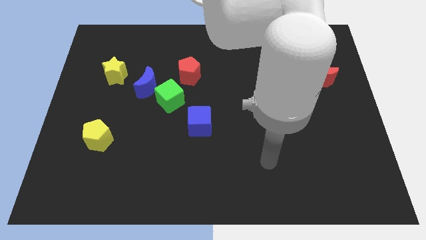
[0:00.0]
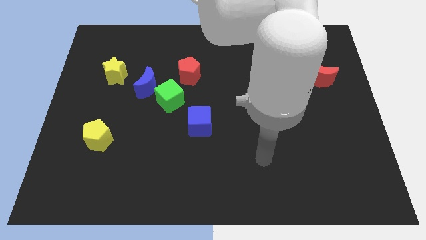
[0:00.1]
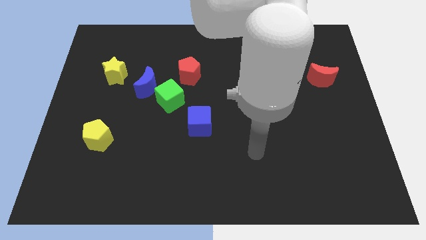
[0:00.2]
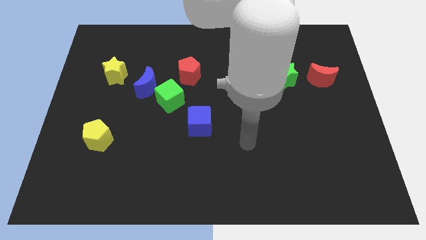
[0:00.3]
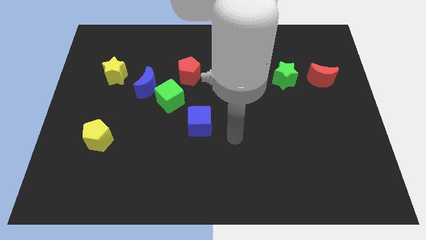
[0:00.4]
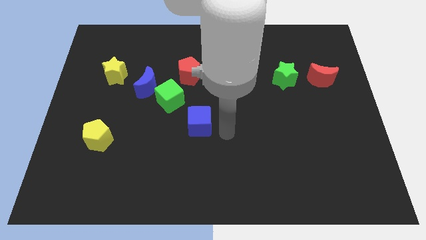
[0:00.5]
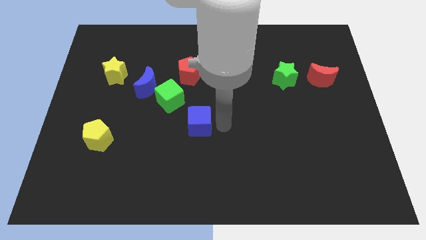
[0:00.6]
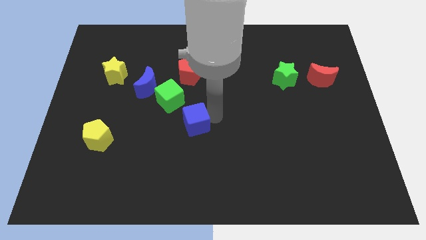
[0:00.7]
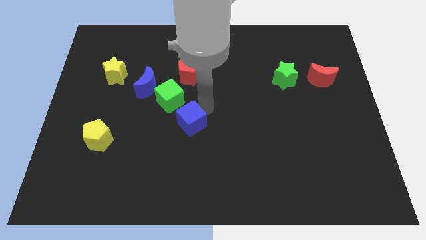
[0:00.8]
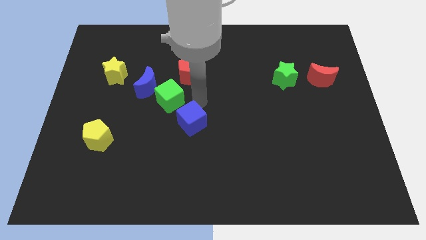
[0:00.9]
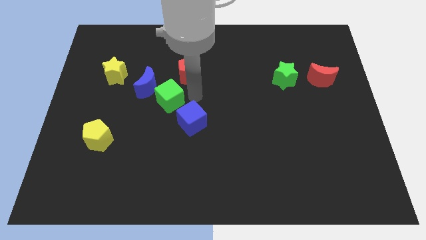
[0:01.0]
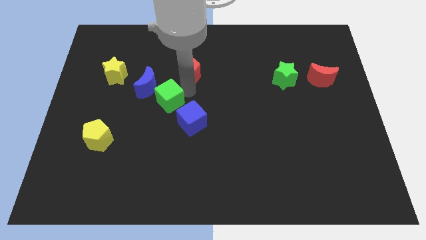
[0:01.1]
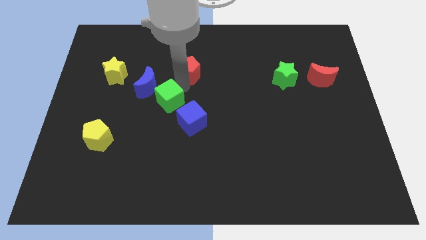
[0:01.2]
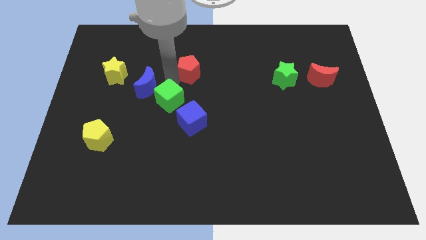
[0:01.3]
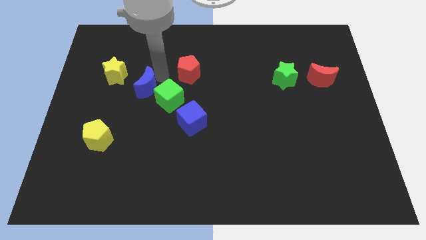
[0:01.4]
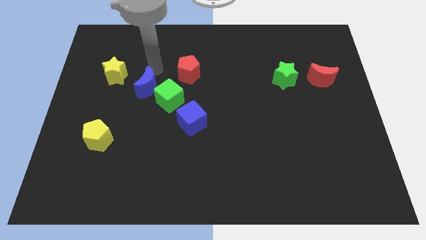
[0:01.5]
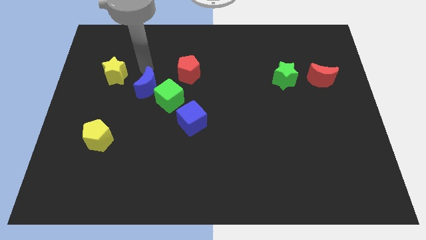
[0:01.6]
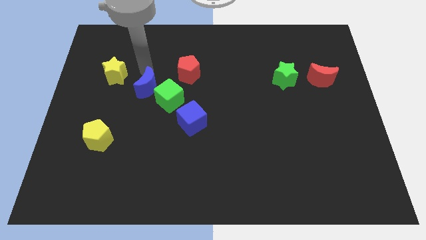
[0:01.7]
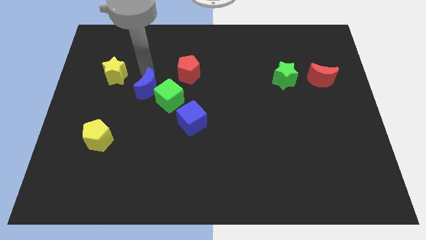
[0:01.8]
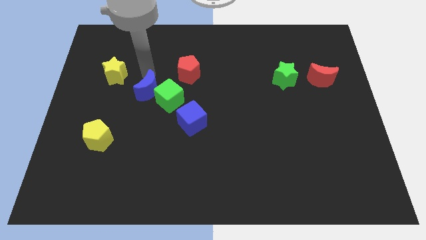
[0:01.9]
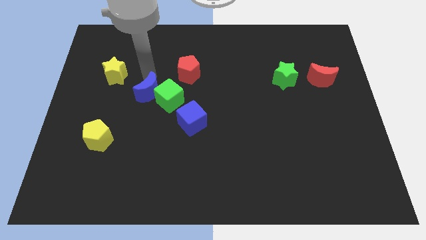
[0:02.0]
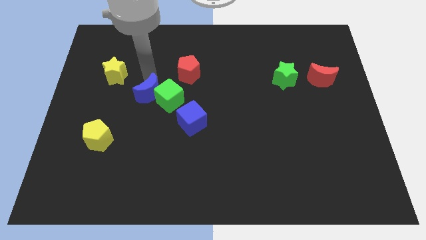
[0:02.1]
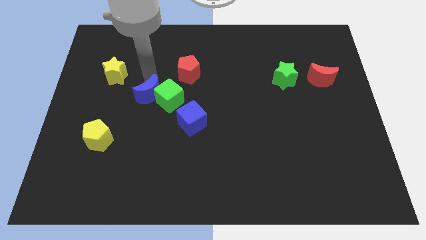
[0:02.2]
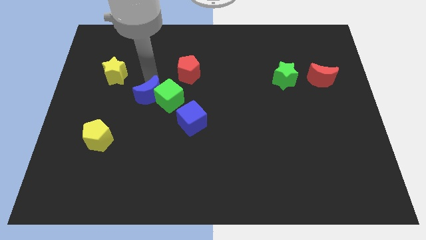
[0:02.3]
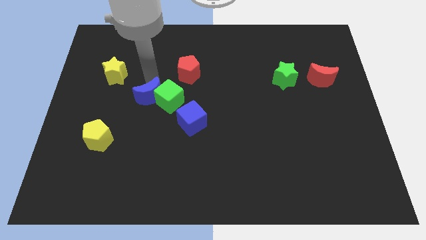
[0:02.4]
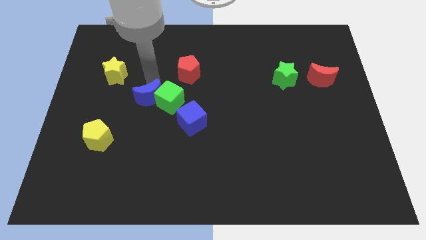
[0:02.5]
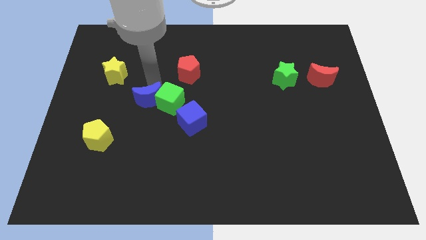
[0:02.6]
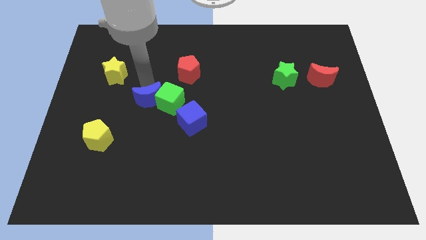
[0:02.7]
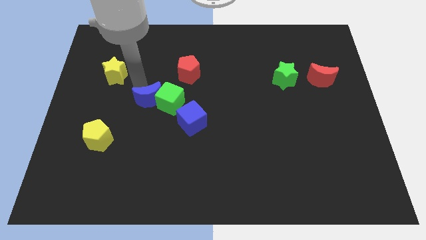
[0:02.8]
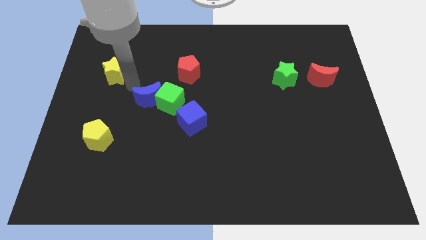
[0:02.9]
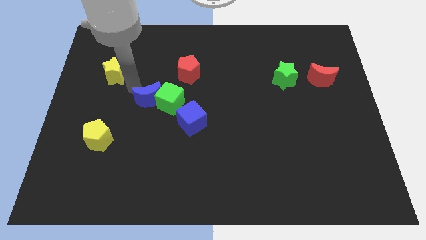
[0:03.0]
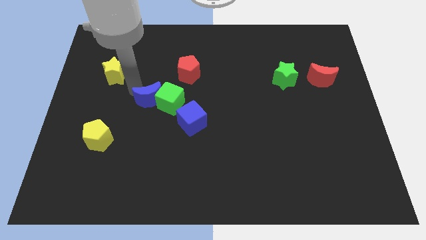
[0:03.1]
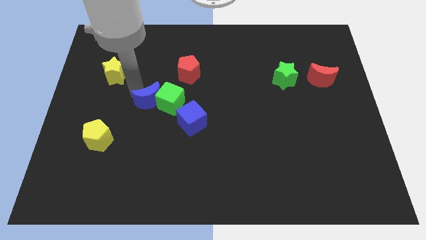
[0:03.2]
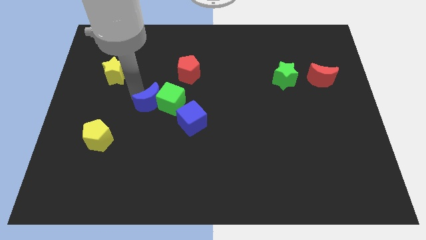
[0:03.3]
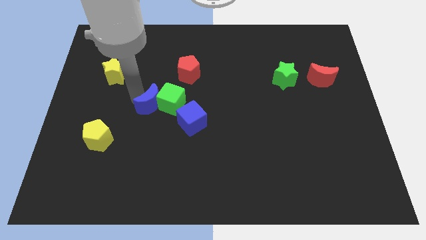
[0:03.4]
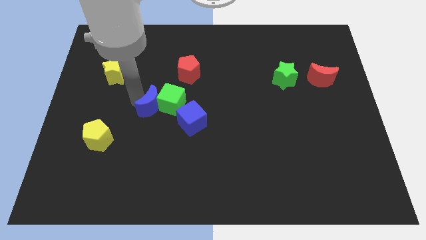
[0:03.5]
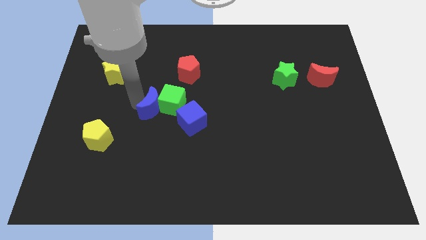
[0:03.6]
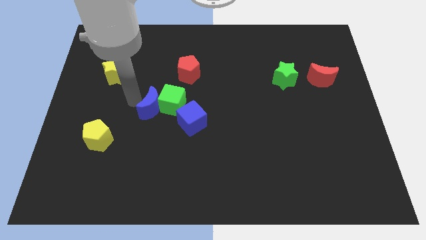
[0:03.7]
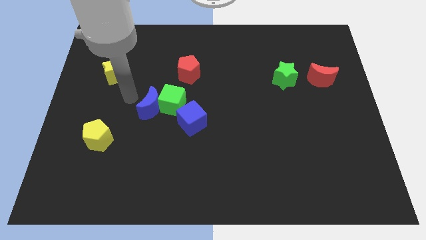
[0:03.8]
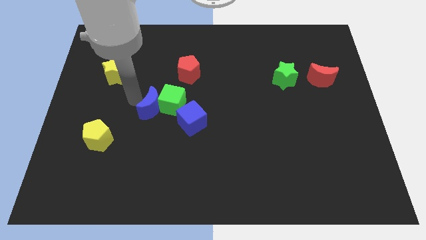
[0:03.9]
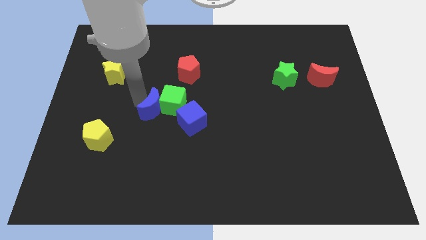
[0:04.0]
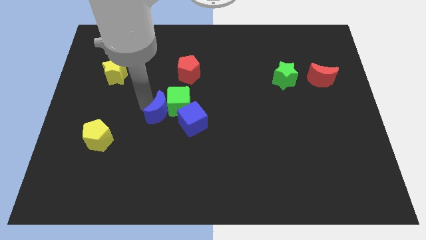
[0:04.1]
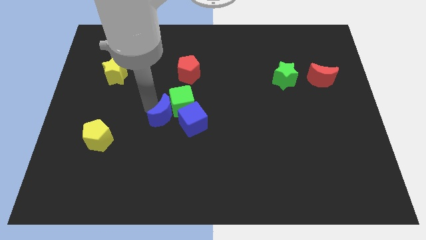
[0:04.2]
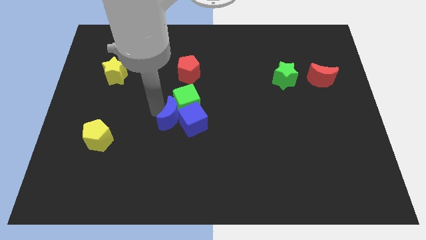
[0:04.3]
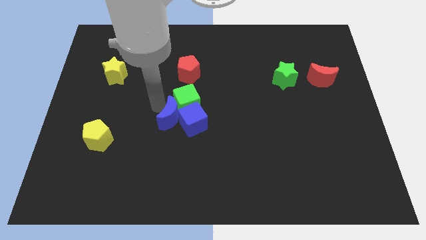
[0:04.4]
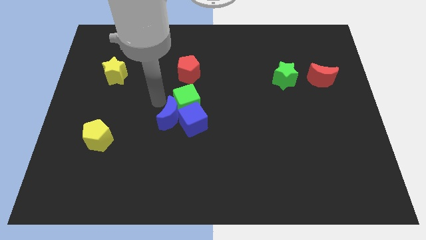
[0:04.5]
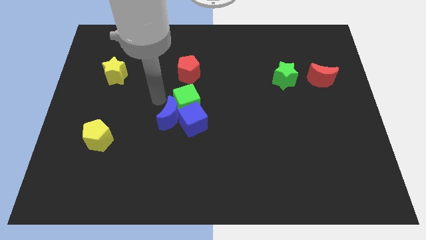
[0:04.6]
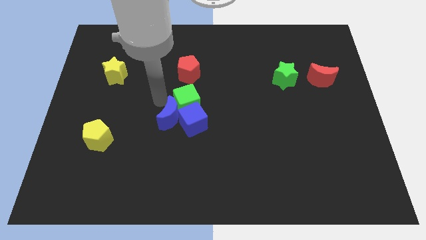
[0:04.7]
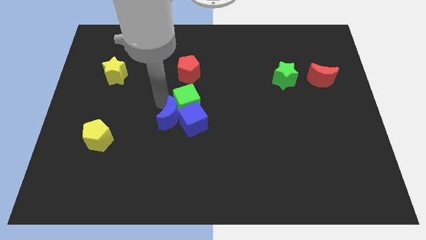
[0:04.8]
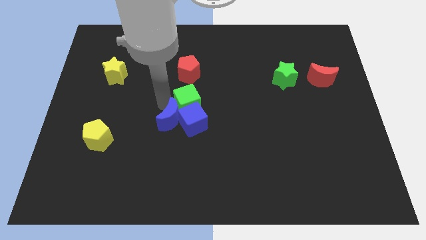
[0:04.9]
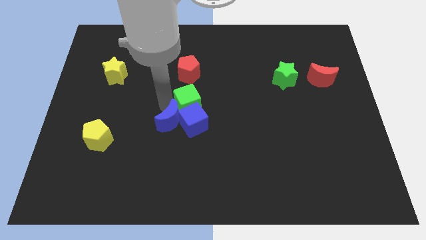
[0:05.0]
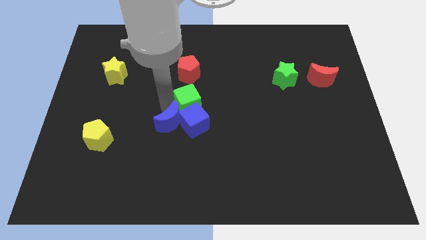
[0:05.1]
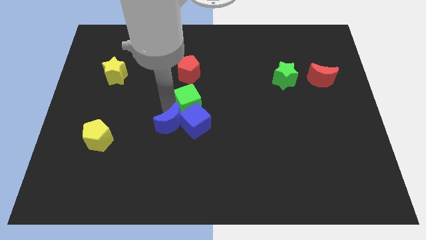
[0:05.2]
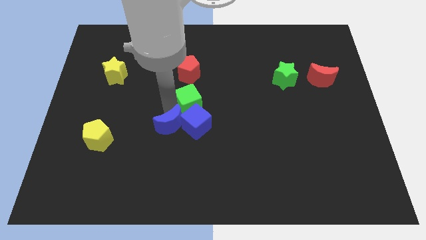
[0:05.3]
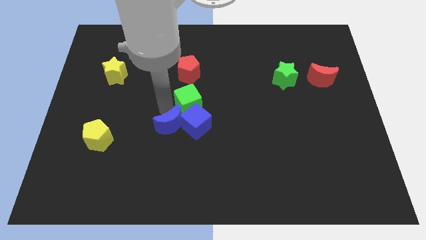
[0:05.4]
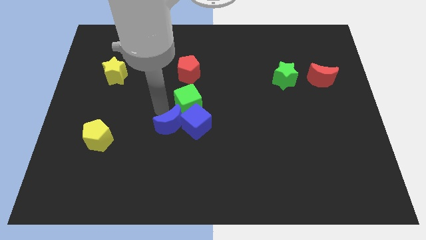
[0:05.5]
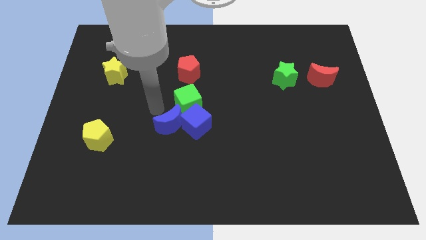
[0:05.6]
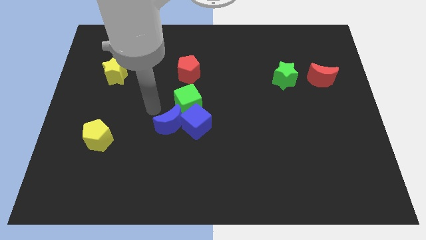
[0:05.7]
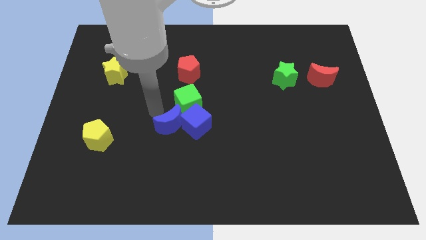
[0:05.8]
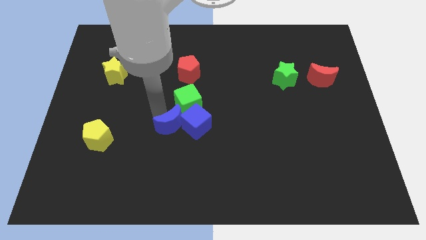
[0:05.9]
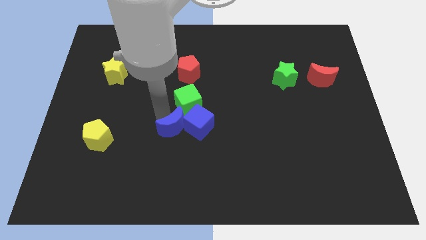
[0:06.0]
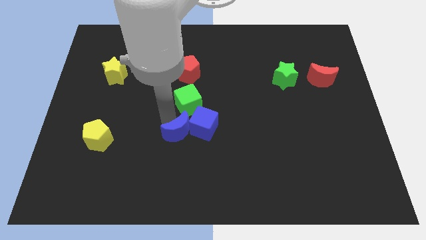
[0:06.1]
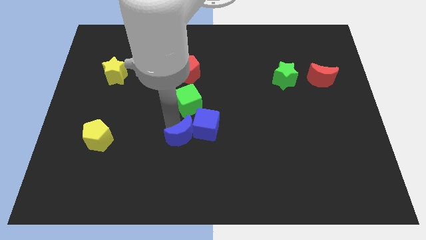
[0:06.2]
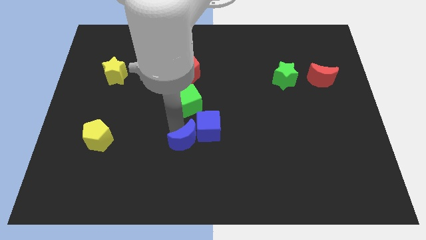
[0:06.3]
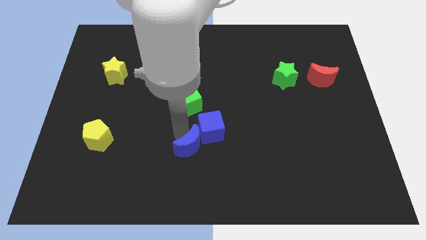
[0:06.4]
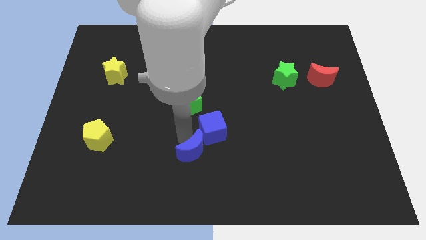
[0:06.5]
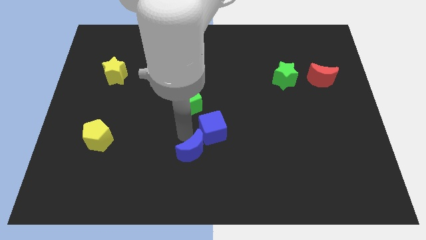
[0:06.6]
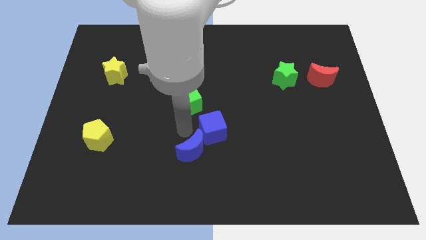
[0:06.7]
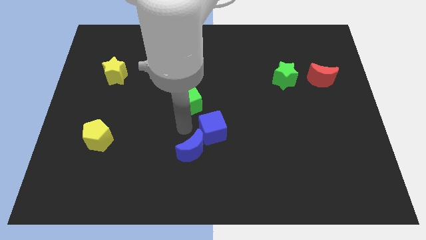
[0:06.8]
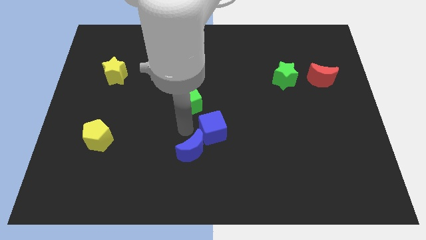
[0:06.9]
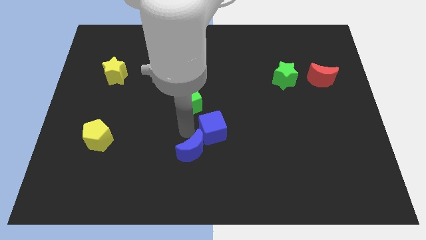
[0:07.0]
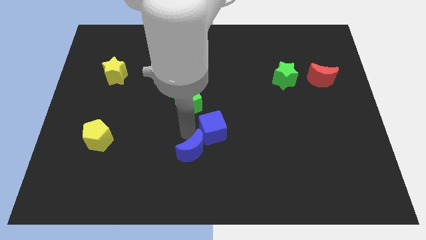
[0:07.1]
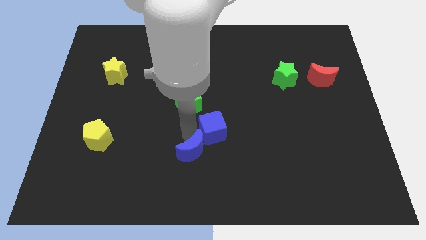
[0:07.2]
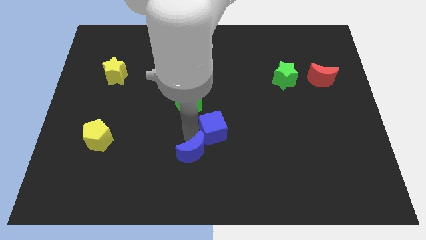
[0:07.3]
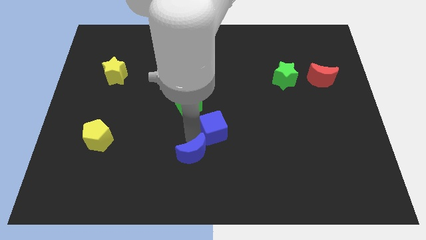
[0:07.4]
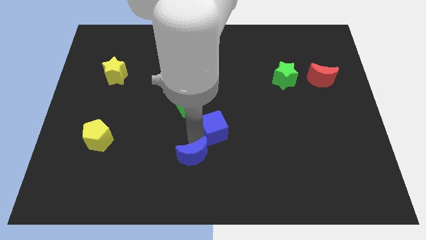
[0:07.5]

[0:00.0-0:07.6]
slide the blue moon to the bottom side

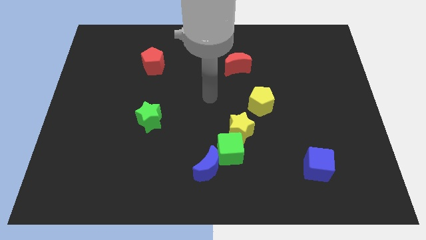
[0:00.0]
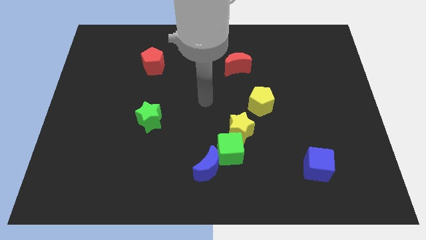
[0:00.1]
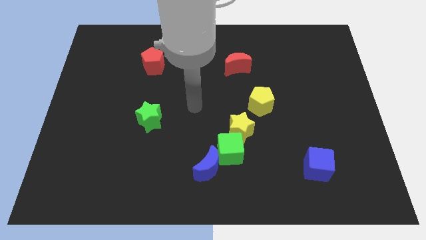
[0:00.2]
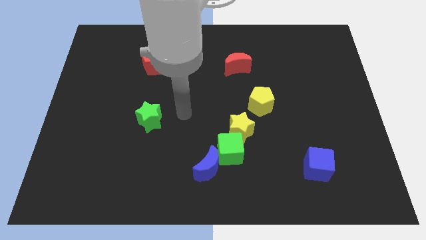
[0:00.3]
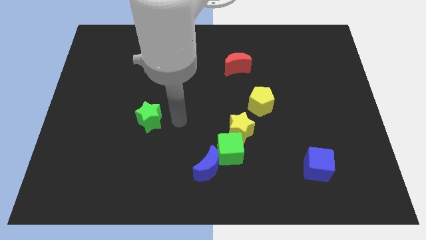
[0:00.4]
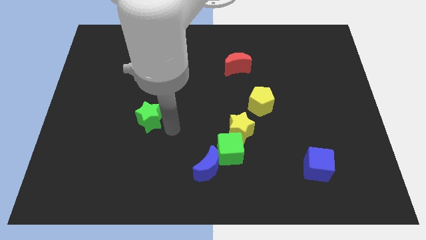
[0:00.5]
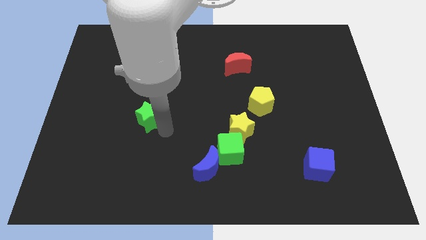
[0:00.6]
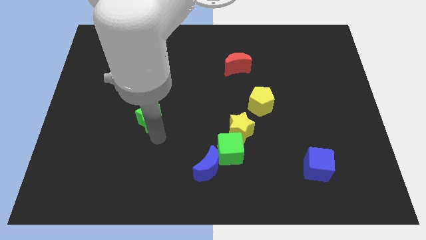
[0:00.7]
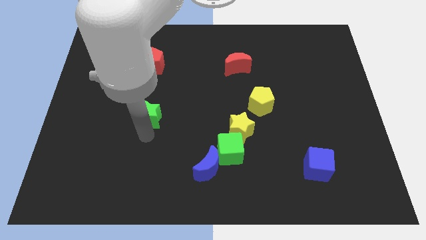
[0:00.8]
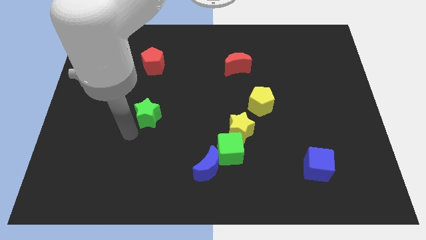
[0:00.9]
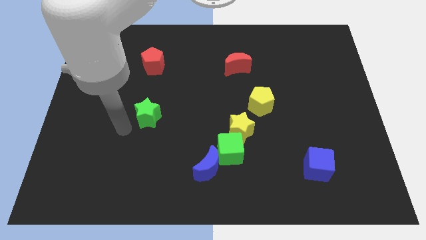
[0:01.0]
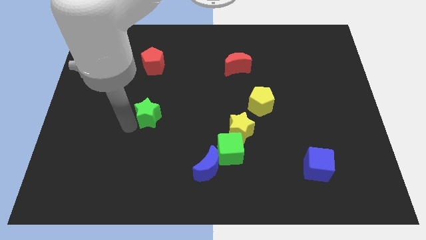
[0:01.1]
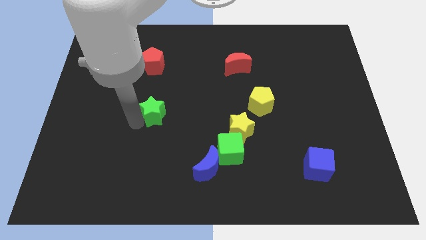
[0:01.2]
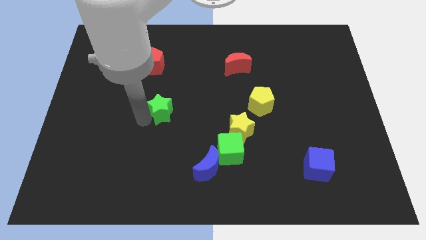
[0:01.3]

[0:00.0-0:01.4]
move the green star to the center of the board
